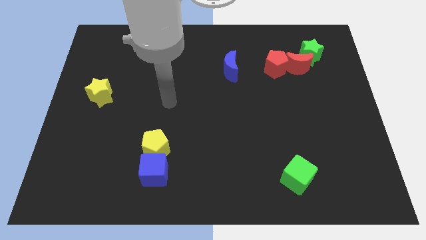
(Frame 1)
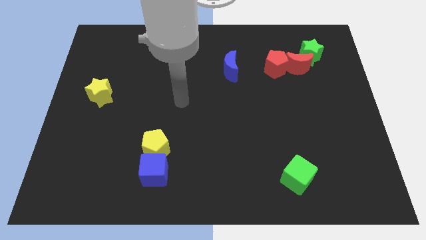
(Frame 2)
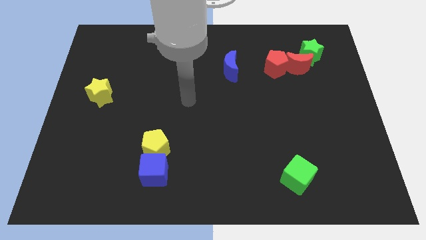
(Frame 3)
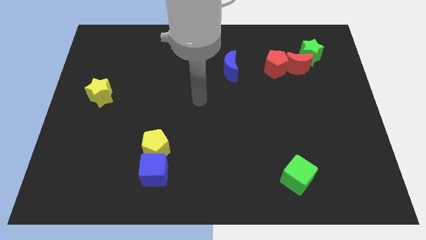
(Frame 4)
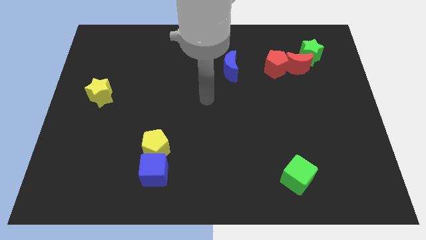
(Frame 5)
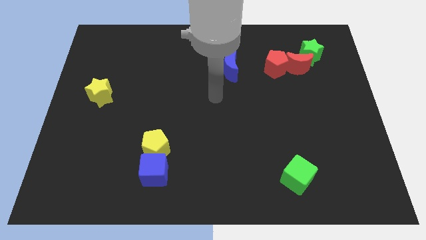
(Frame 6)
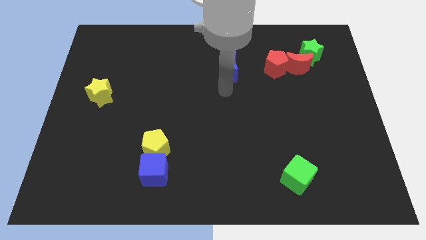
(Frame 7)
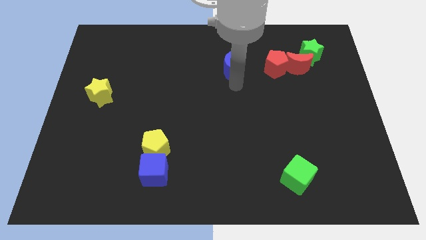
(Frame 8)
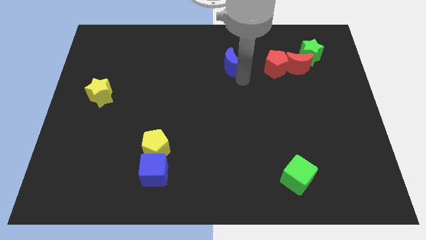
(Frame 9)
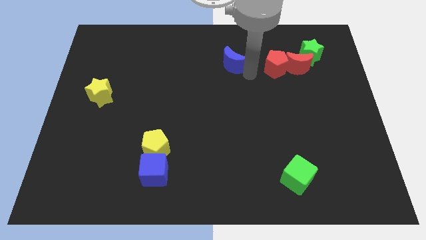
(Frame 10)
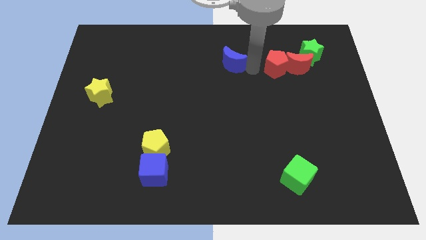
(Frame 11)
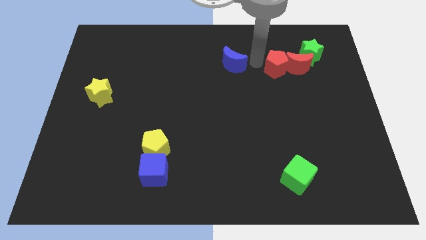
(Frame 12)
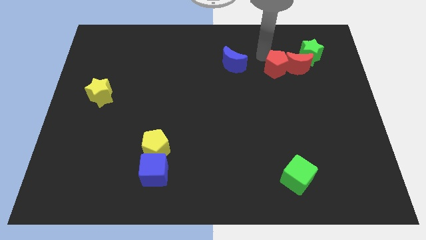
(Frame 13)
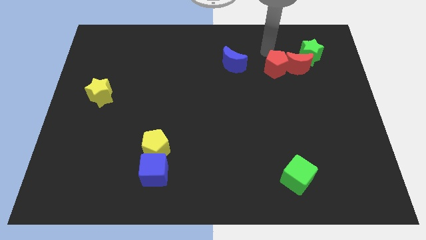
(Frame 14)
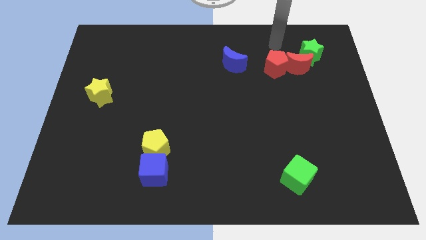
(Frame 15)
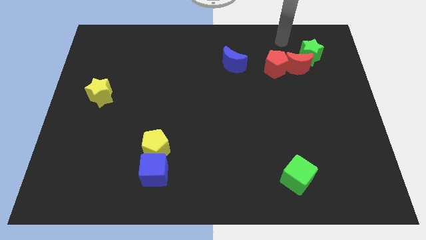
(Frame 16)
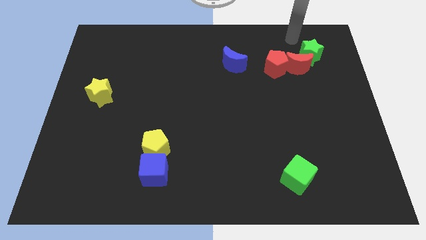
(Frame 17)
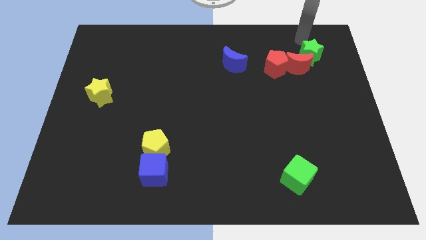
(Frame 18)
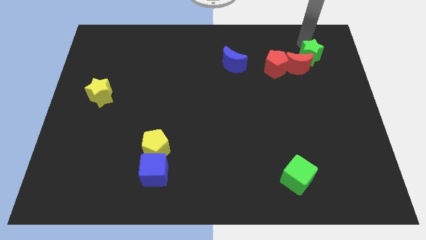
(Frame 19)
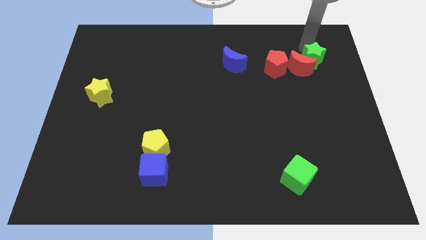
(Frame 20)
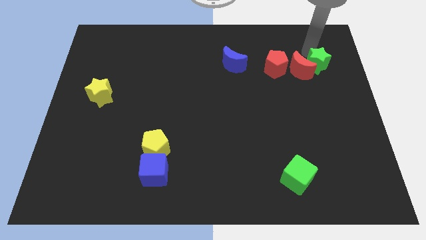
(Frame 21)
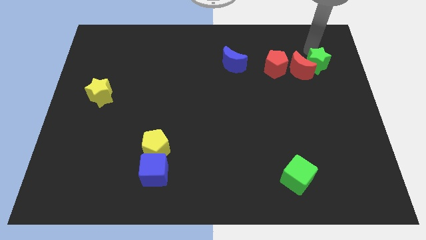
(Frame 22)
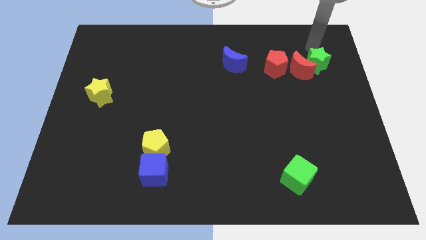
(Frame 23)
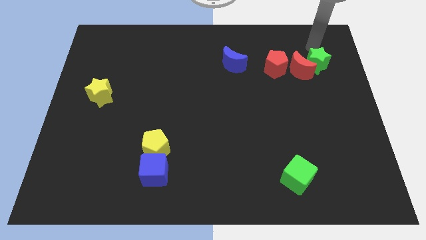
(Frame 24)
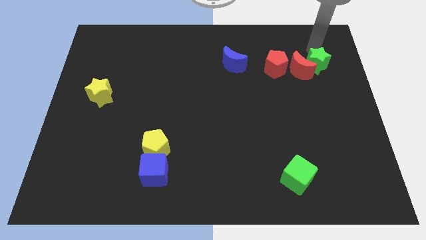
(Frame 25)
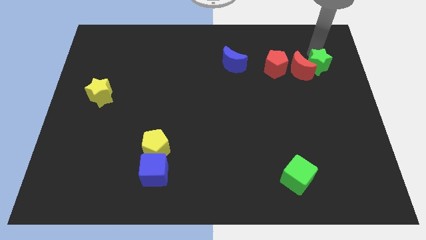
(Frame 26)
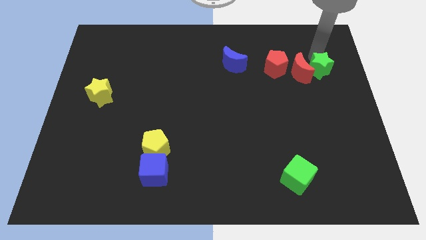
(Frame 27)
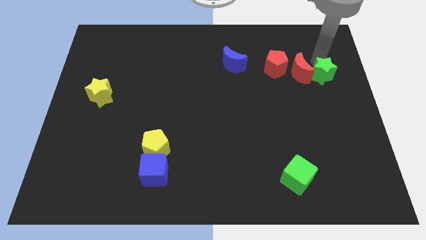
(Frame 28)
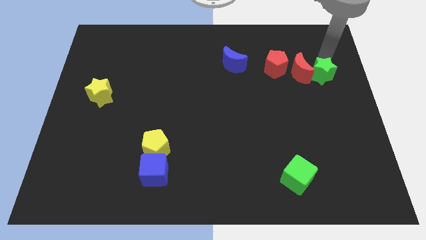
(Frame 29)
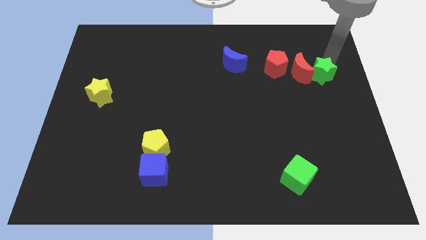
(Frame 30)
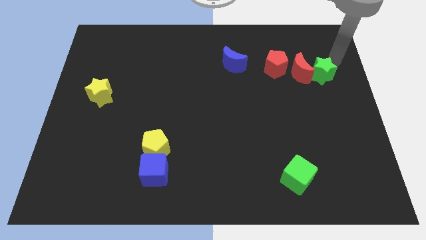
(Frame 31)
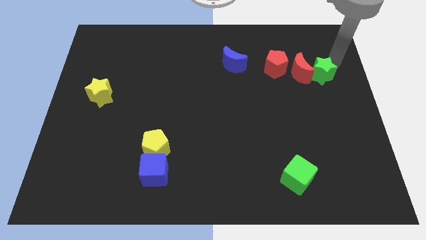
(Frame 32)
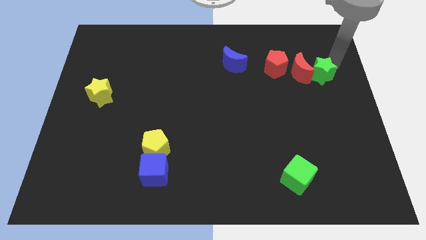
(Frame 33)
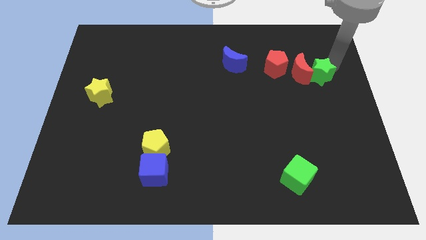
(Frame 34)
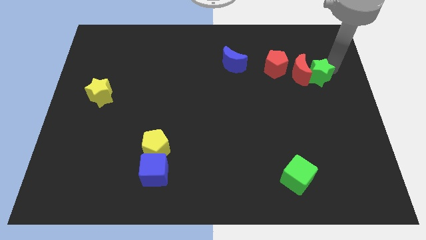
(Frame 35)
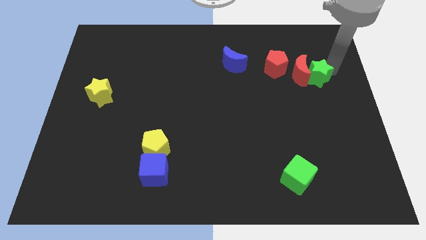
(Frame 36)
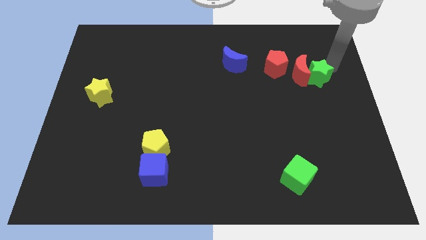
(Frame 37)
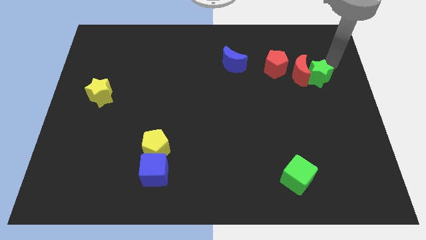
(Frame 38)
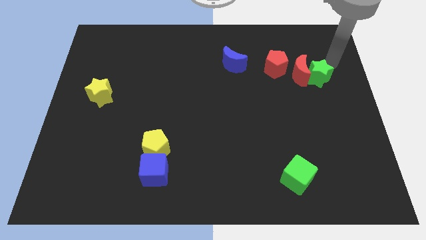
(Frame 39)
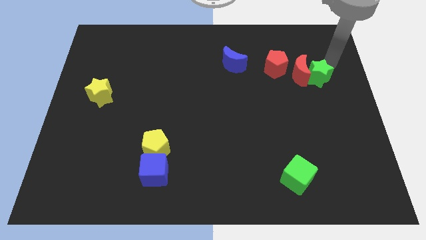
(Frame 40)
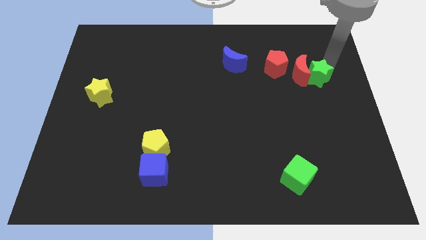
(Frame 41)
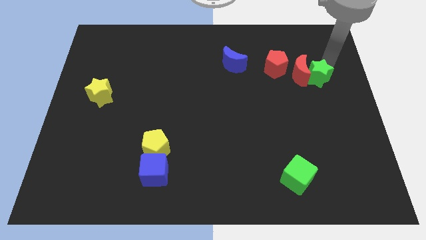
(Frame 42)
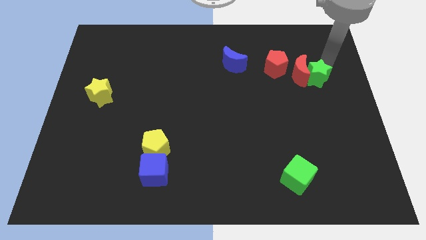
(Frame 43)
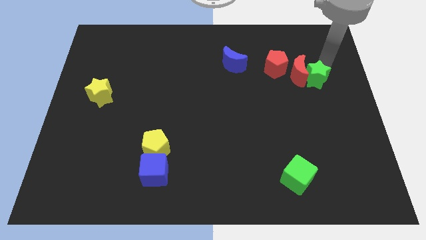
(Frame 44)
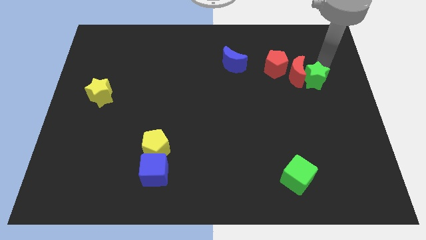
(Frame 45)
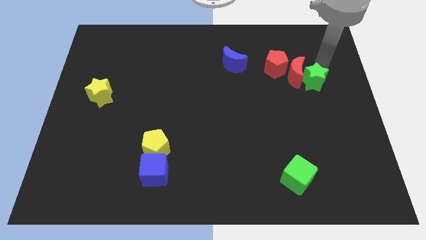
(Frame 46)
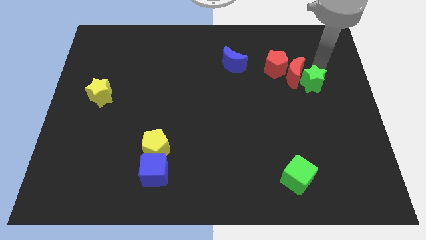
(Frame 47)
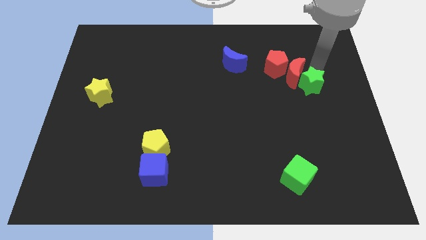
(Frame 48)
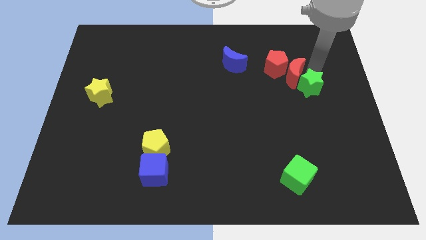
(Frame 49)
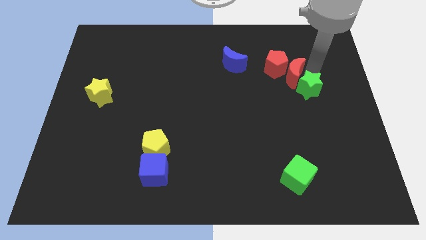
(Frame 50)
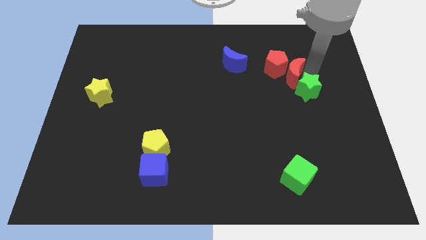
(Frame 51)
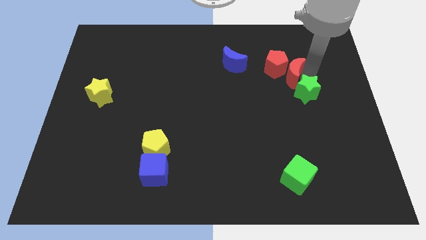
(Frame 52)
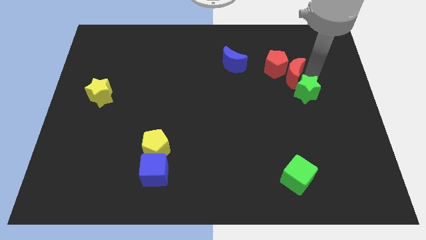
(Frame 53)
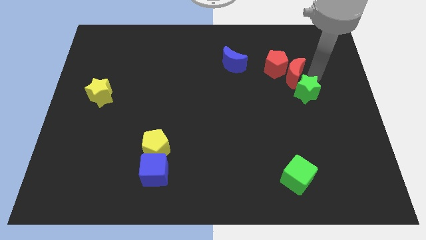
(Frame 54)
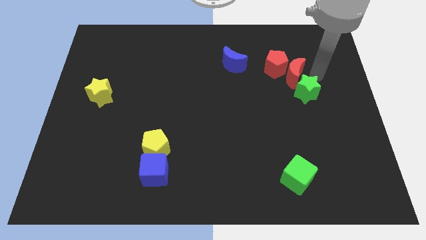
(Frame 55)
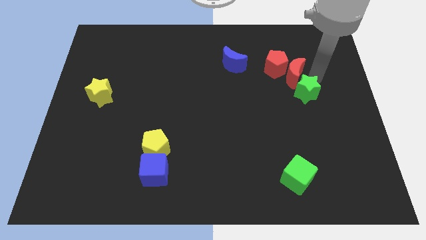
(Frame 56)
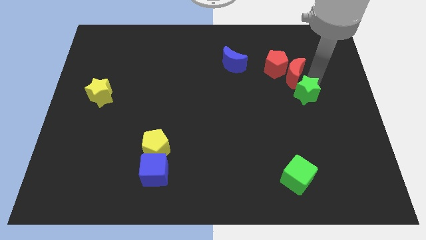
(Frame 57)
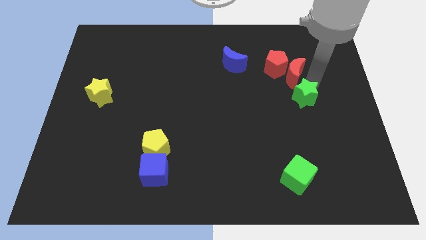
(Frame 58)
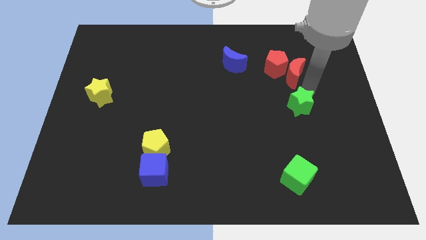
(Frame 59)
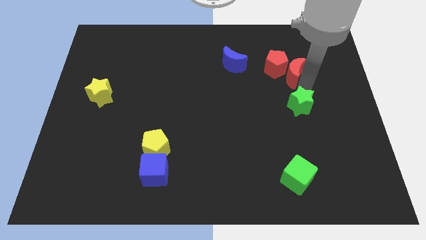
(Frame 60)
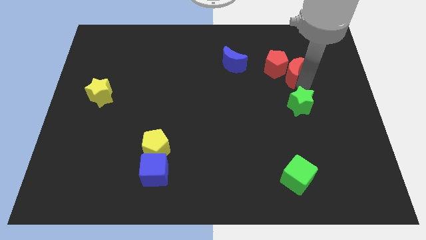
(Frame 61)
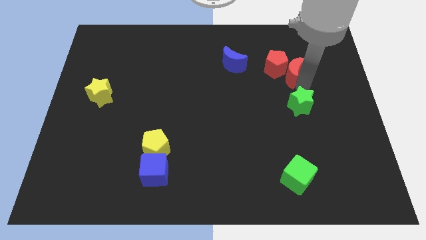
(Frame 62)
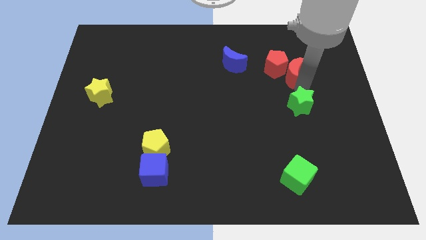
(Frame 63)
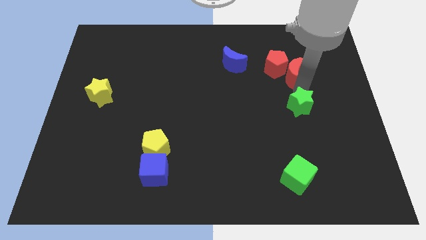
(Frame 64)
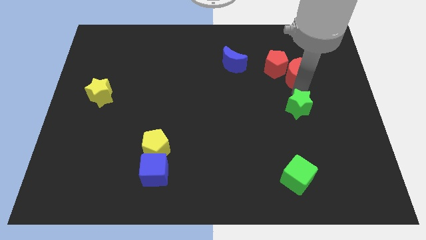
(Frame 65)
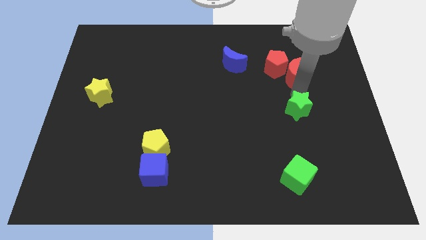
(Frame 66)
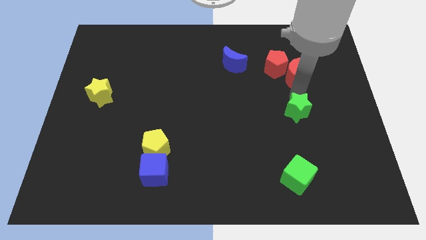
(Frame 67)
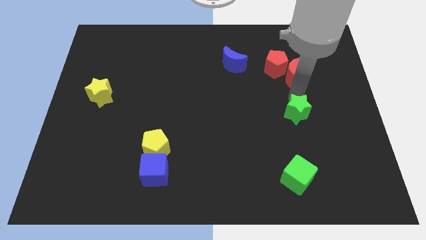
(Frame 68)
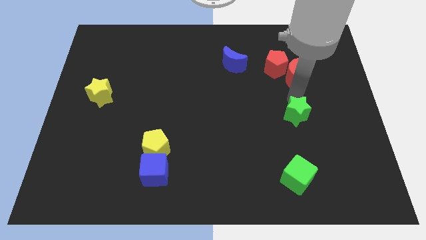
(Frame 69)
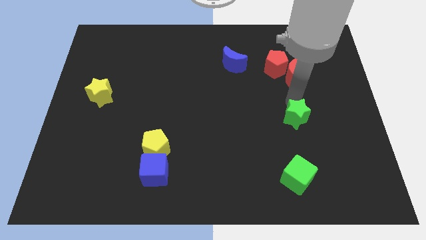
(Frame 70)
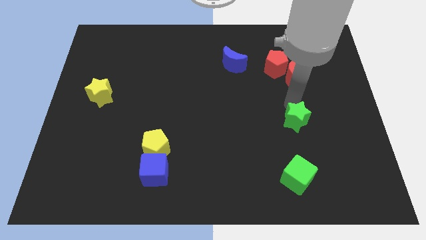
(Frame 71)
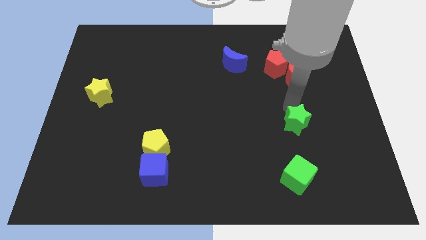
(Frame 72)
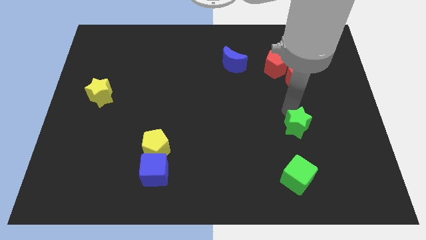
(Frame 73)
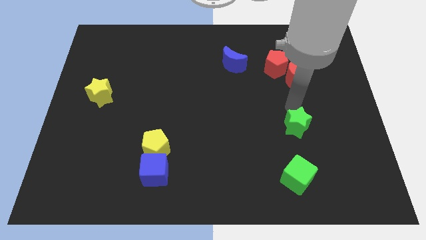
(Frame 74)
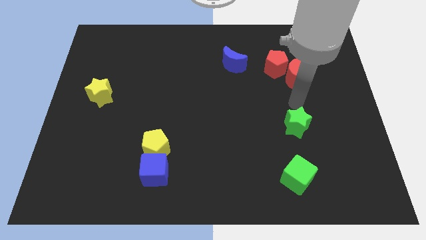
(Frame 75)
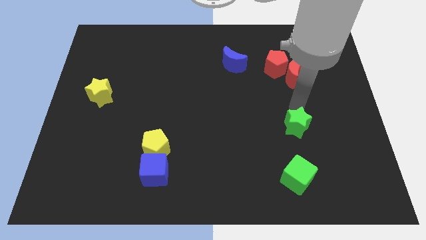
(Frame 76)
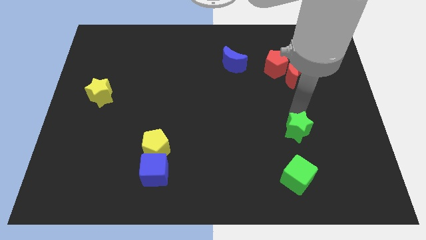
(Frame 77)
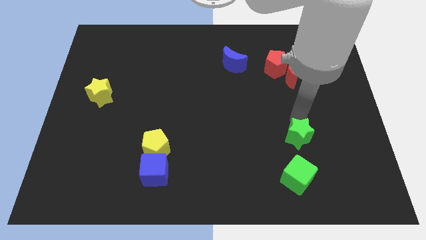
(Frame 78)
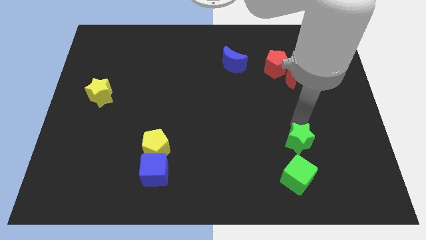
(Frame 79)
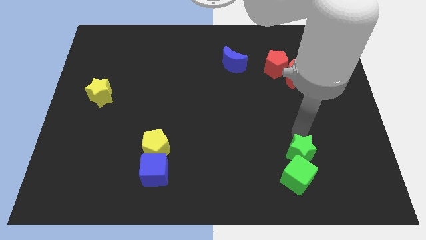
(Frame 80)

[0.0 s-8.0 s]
put the green star close to the green cube
